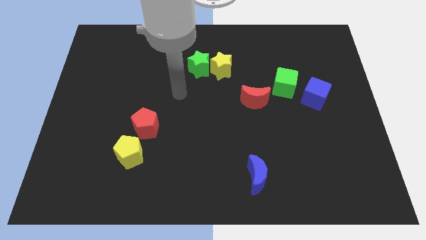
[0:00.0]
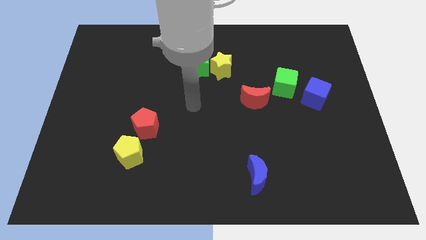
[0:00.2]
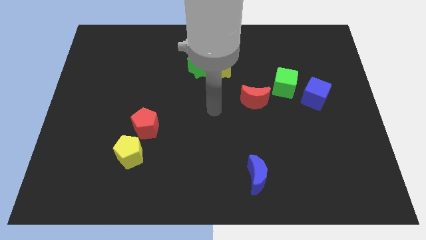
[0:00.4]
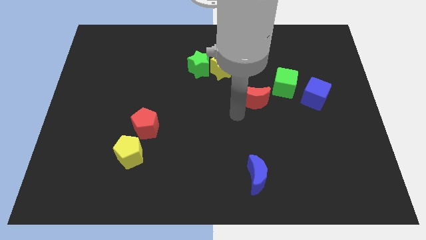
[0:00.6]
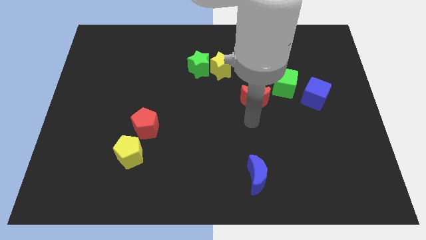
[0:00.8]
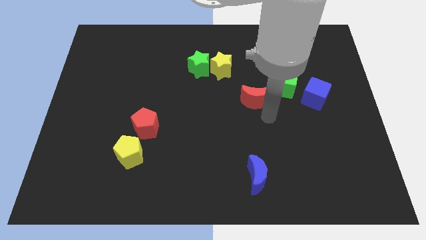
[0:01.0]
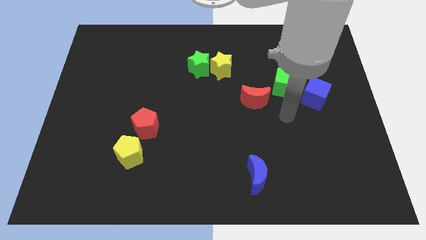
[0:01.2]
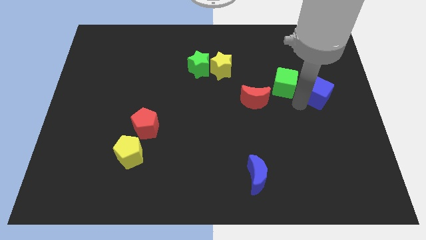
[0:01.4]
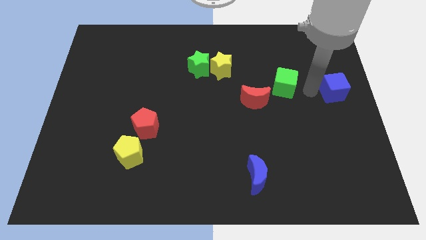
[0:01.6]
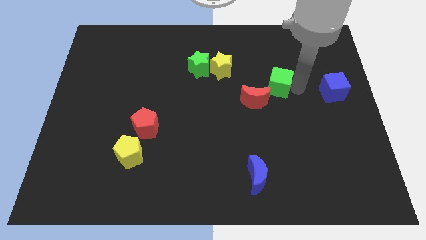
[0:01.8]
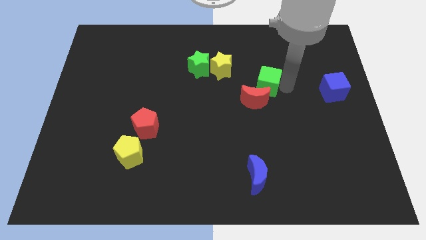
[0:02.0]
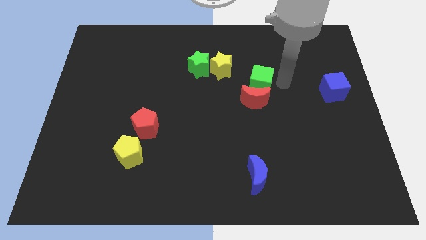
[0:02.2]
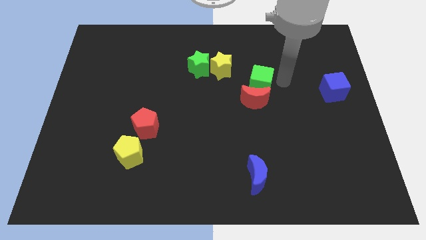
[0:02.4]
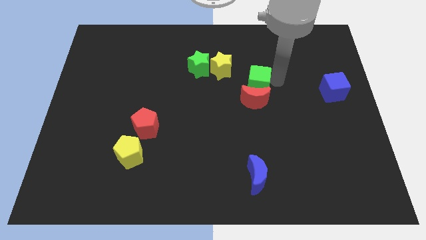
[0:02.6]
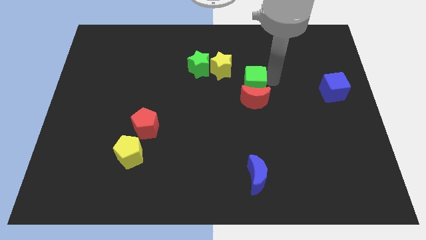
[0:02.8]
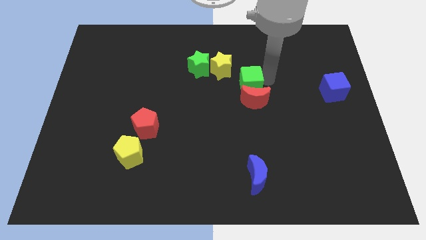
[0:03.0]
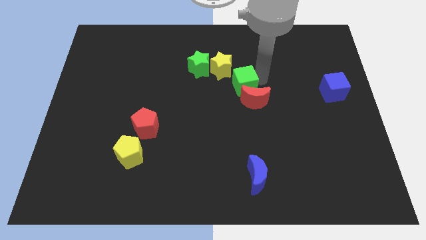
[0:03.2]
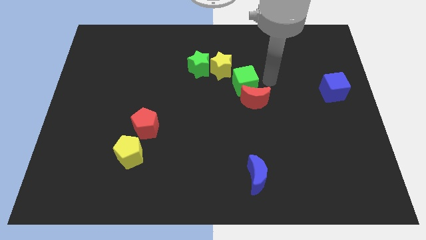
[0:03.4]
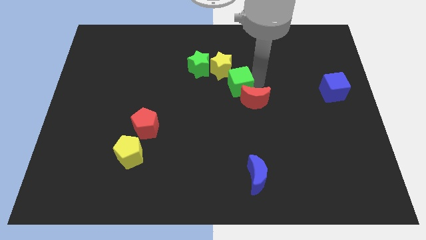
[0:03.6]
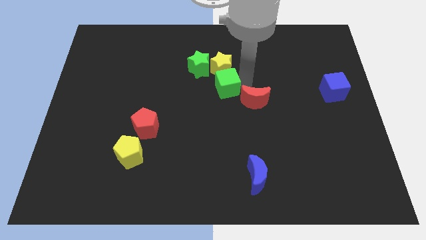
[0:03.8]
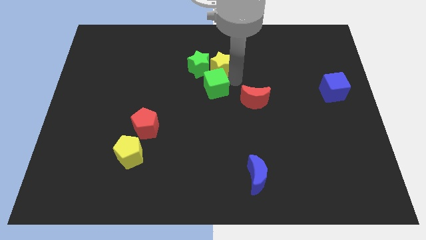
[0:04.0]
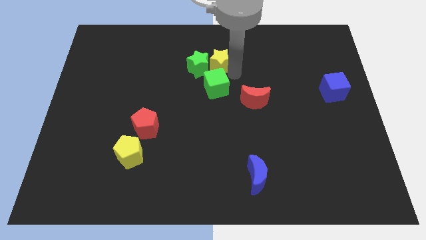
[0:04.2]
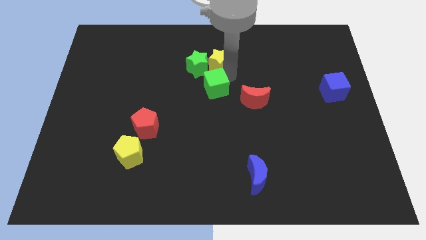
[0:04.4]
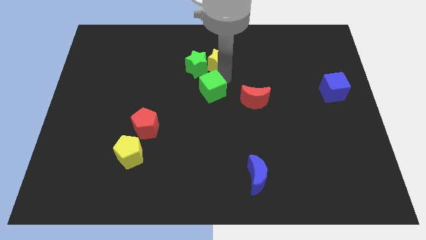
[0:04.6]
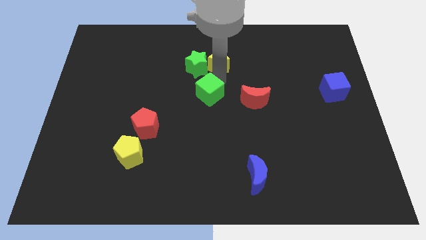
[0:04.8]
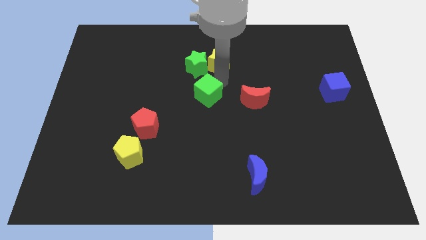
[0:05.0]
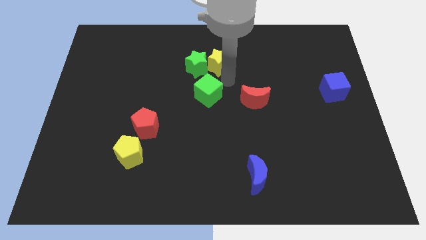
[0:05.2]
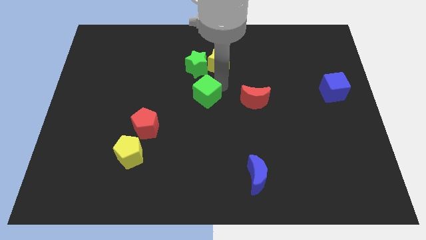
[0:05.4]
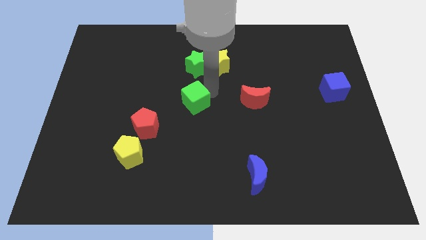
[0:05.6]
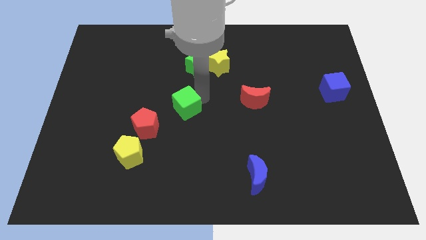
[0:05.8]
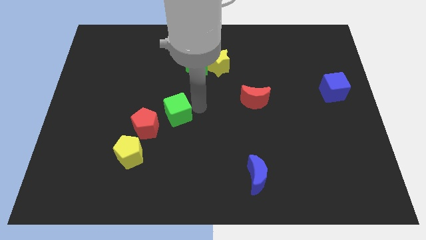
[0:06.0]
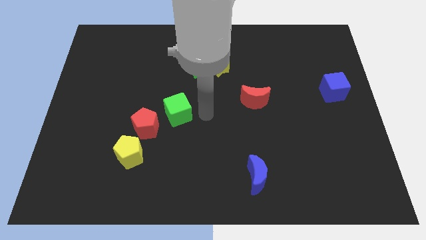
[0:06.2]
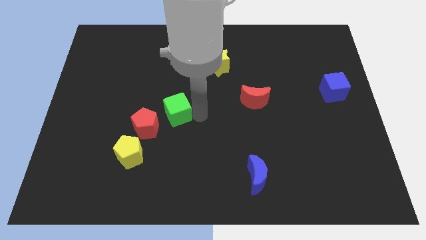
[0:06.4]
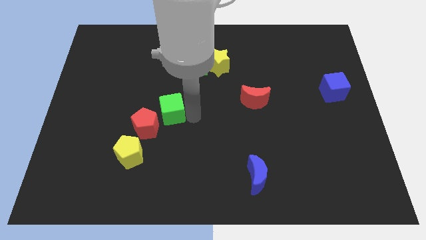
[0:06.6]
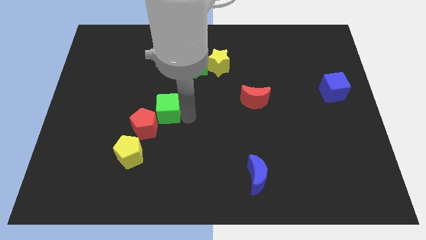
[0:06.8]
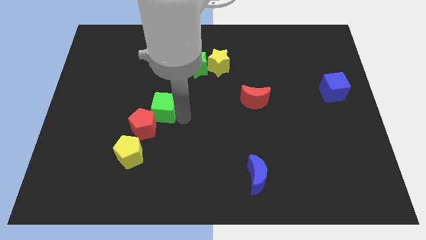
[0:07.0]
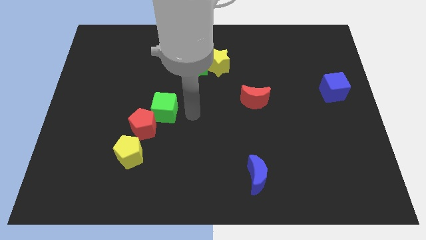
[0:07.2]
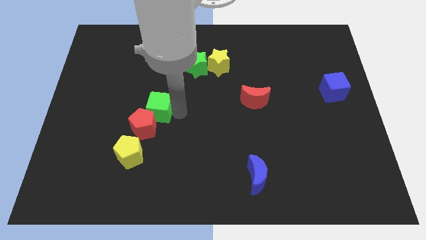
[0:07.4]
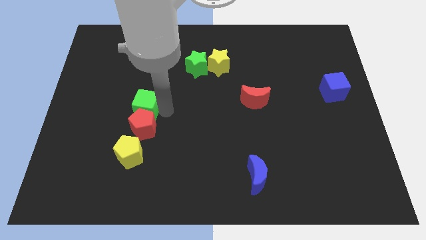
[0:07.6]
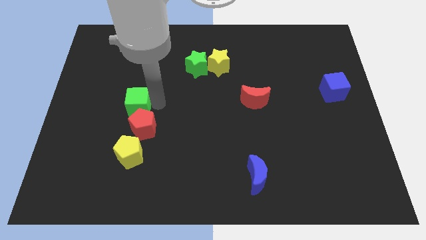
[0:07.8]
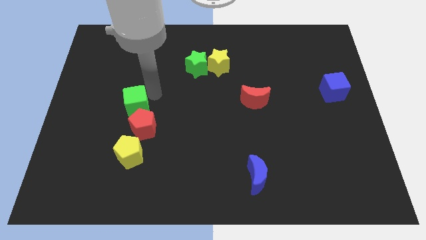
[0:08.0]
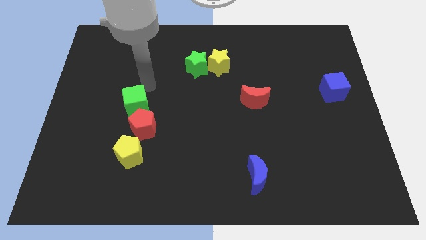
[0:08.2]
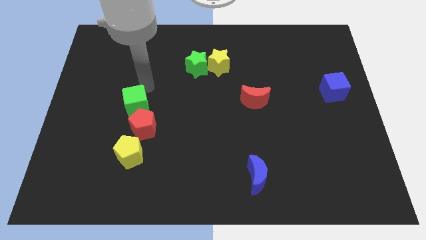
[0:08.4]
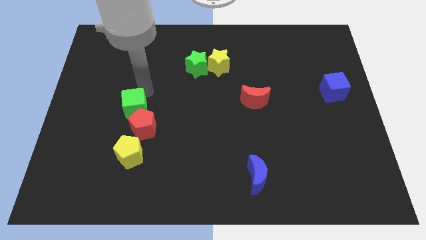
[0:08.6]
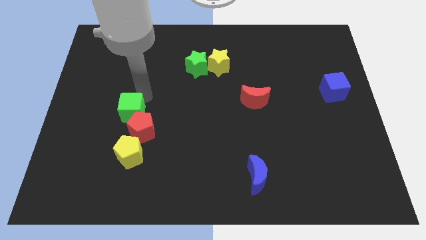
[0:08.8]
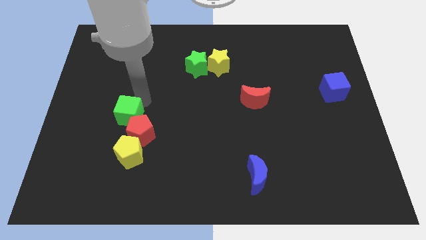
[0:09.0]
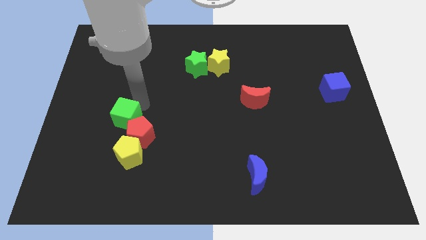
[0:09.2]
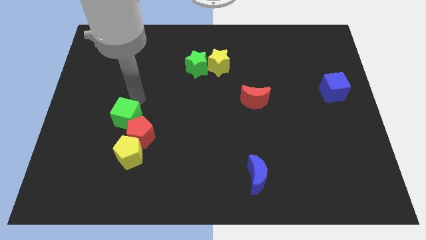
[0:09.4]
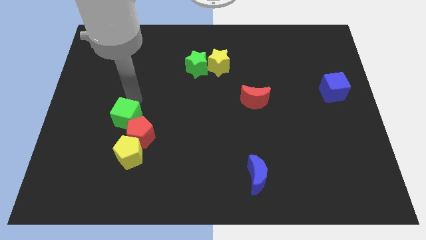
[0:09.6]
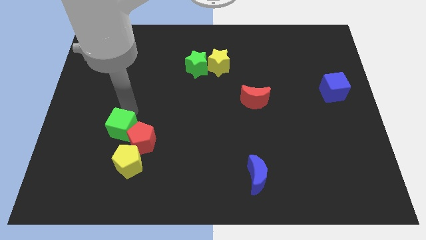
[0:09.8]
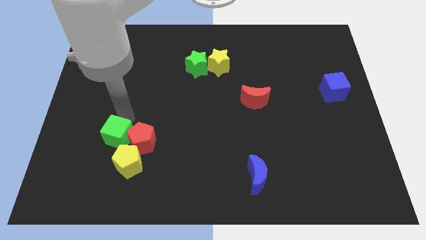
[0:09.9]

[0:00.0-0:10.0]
put the green cube diagonally down and to the left of the red pentagon

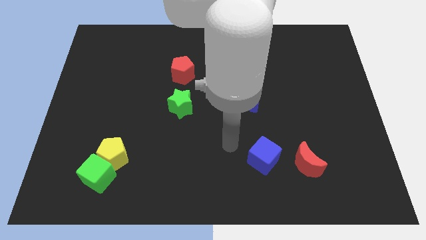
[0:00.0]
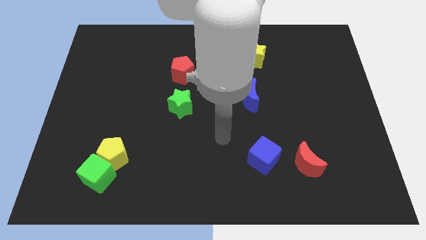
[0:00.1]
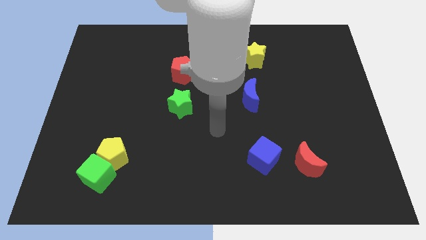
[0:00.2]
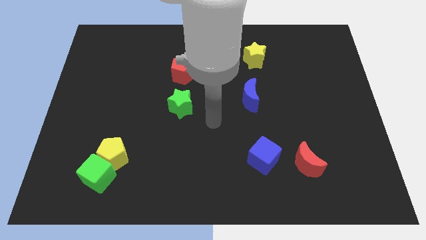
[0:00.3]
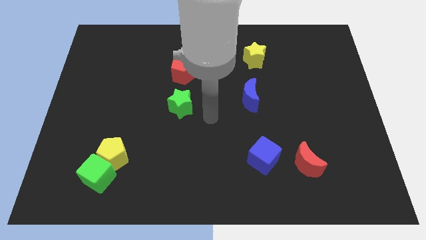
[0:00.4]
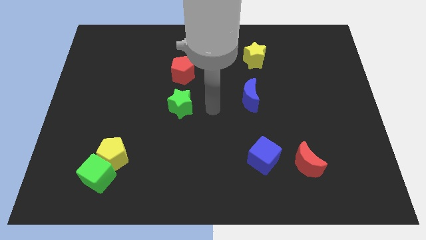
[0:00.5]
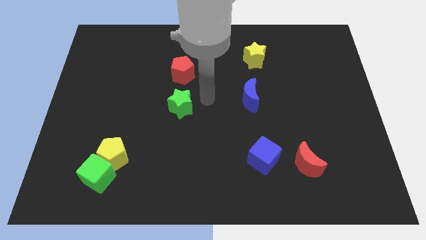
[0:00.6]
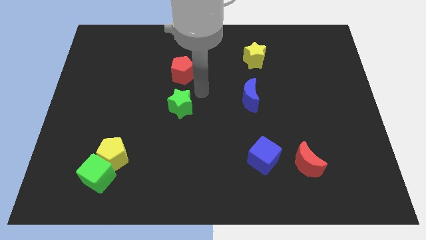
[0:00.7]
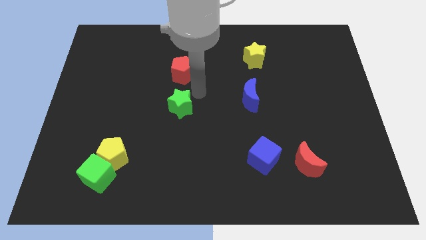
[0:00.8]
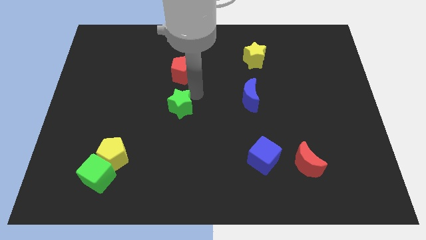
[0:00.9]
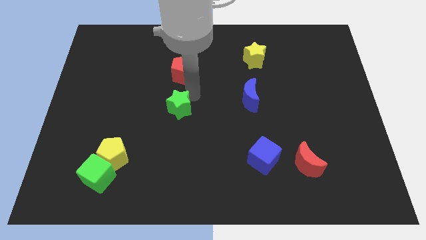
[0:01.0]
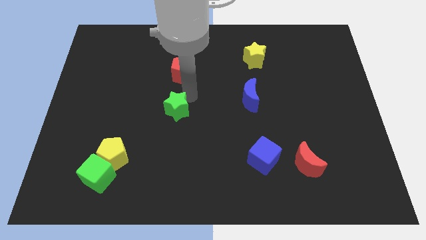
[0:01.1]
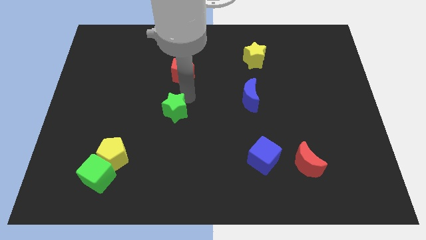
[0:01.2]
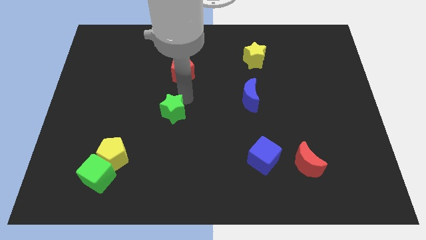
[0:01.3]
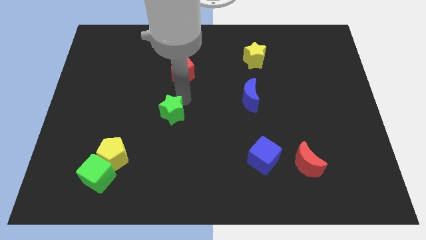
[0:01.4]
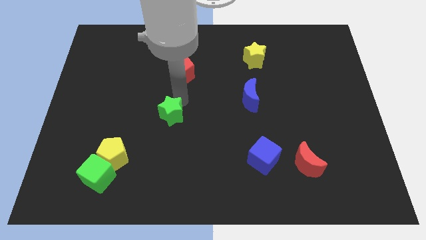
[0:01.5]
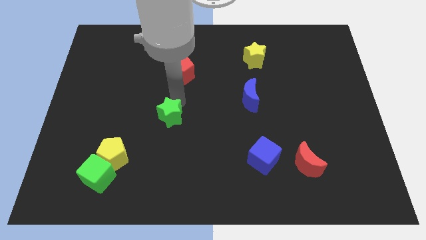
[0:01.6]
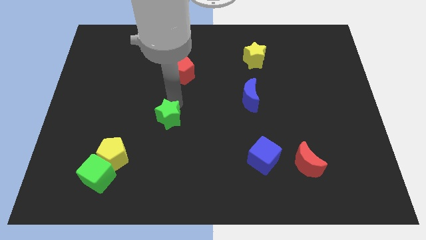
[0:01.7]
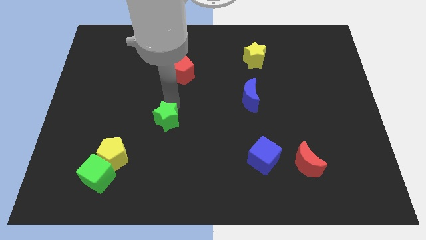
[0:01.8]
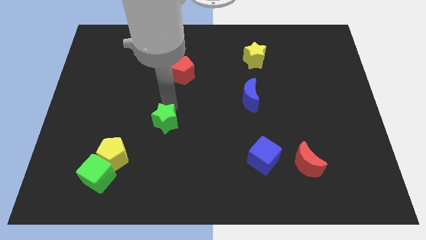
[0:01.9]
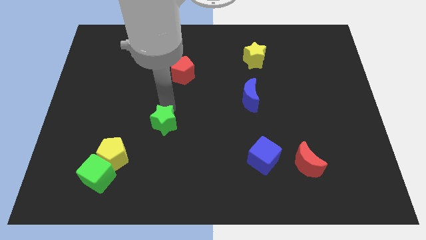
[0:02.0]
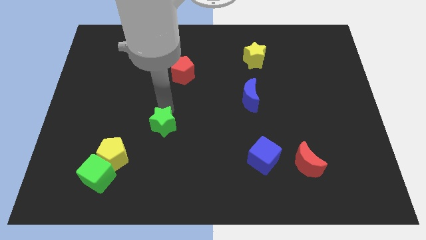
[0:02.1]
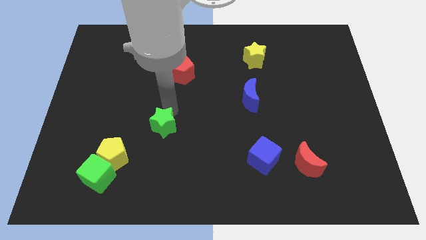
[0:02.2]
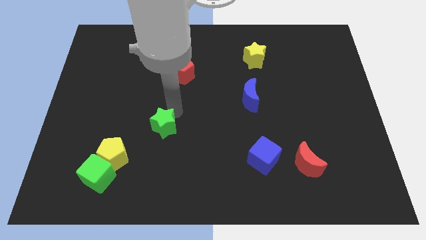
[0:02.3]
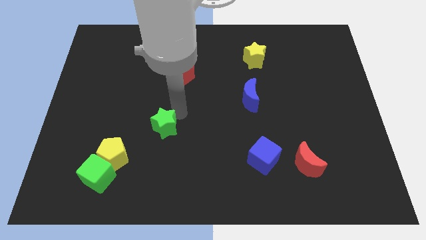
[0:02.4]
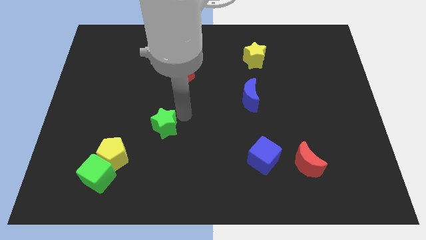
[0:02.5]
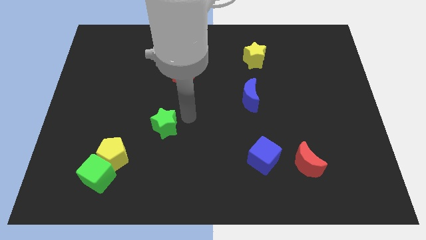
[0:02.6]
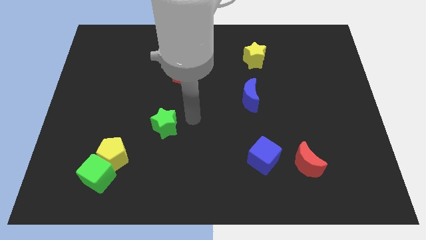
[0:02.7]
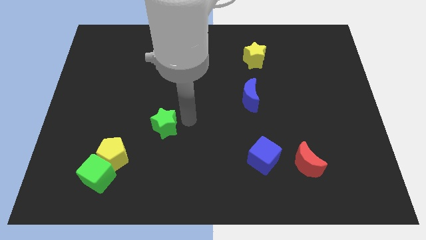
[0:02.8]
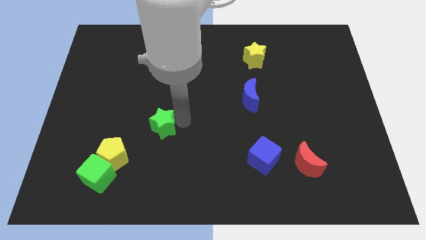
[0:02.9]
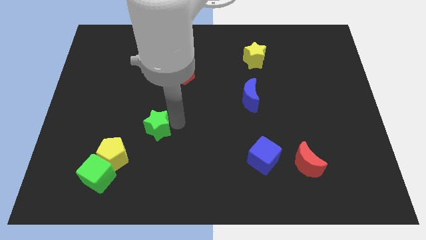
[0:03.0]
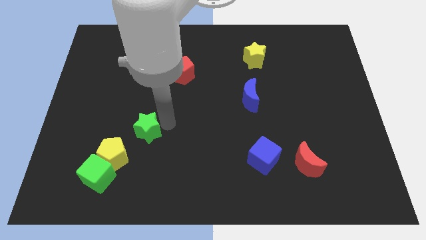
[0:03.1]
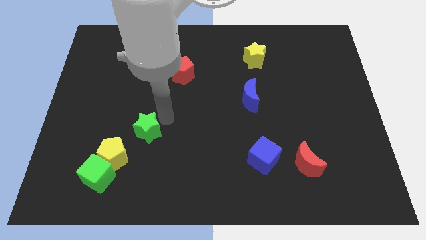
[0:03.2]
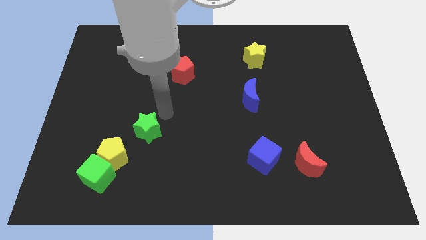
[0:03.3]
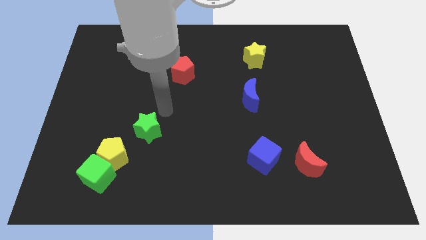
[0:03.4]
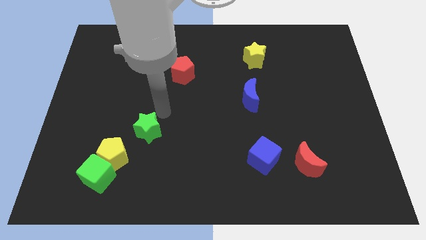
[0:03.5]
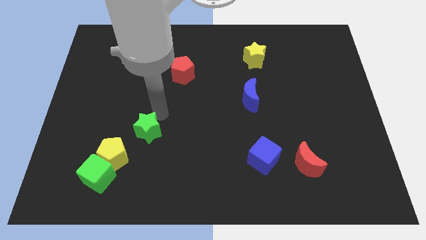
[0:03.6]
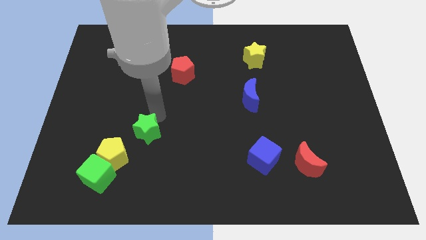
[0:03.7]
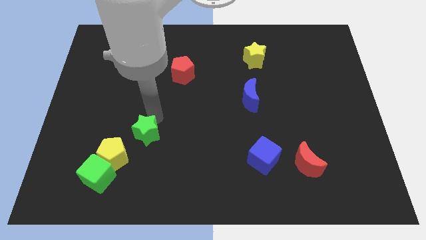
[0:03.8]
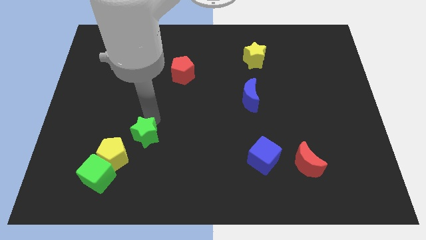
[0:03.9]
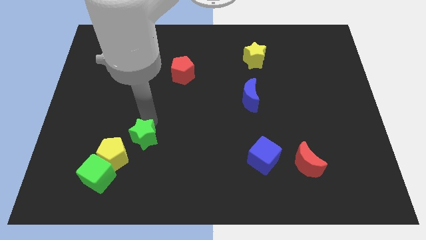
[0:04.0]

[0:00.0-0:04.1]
slide the green star to the top right side of the green cube
